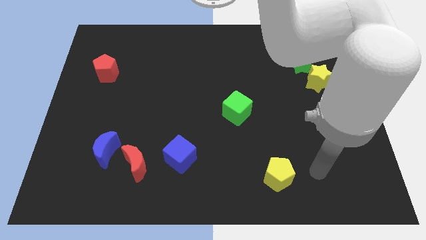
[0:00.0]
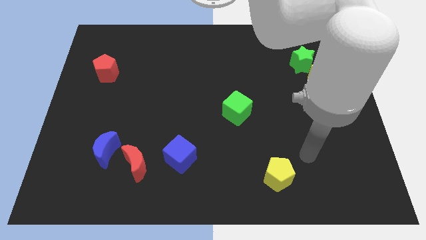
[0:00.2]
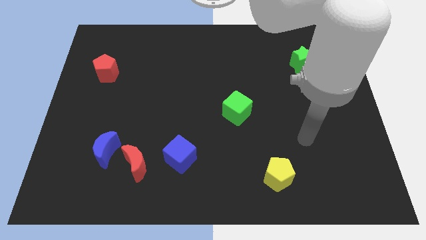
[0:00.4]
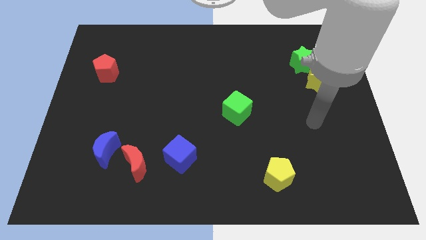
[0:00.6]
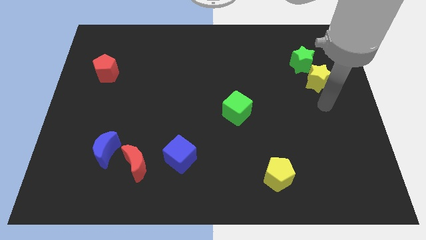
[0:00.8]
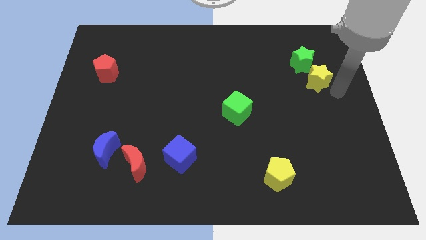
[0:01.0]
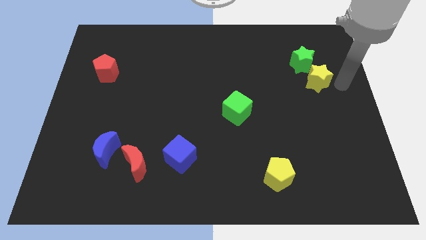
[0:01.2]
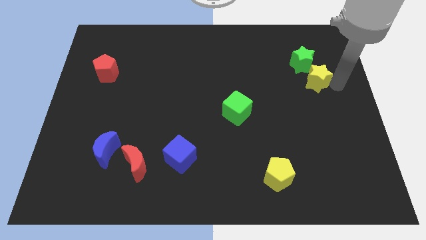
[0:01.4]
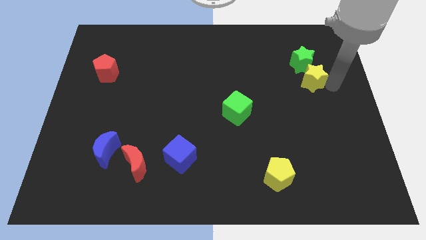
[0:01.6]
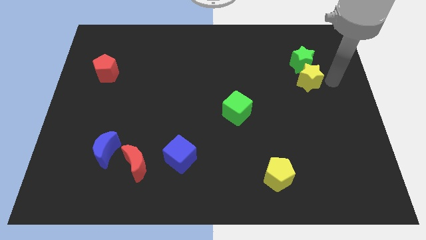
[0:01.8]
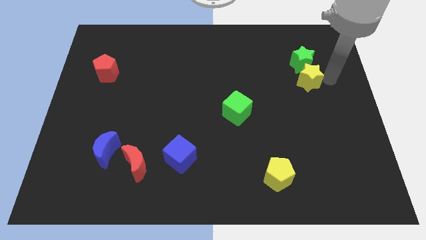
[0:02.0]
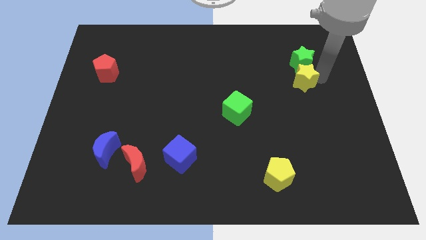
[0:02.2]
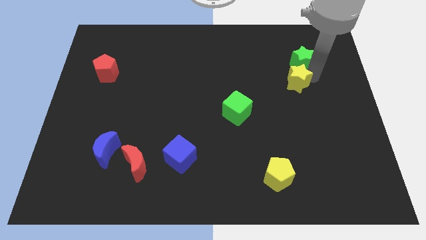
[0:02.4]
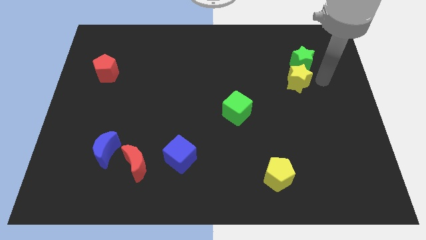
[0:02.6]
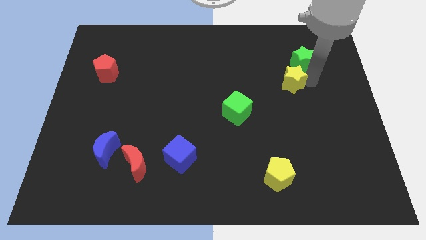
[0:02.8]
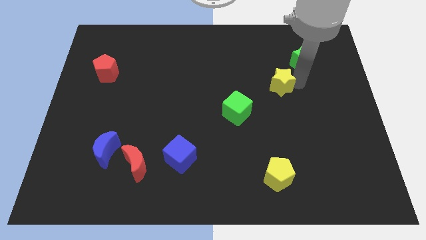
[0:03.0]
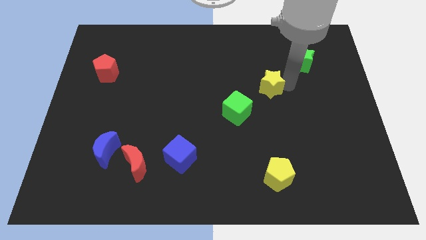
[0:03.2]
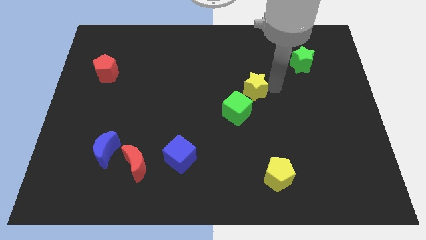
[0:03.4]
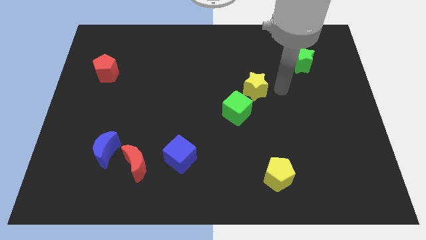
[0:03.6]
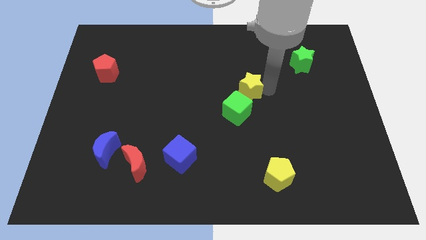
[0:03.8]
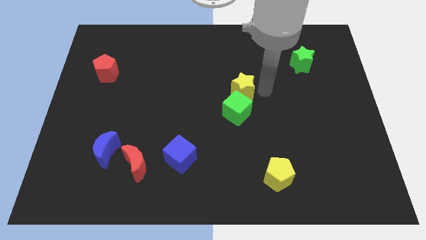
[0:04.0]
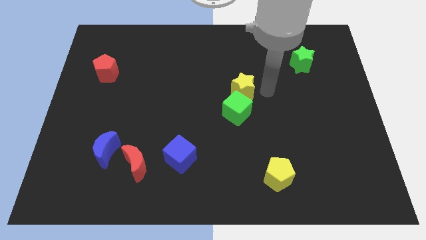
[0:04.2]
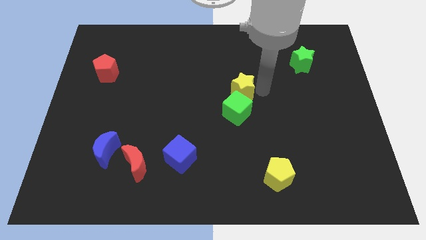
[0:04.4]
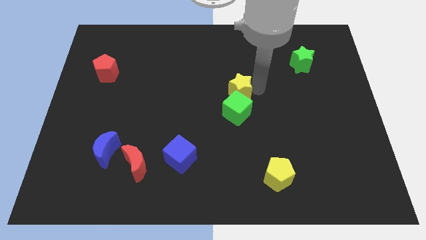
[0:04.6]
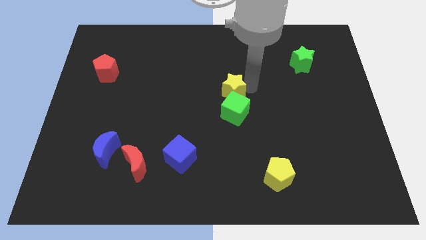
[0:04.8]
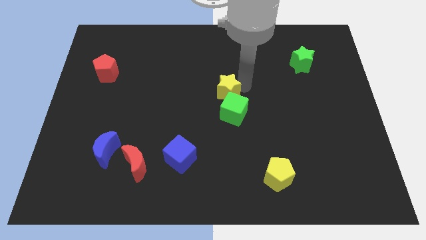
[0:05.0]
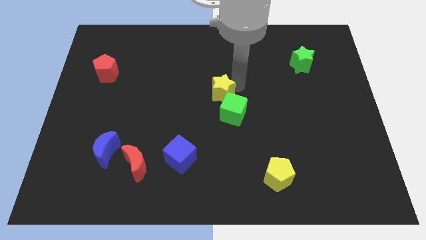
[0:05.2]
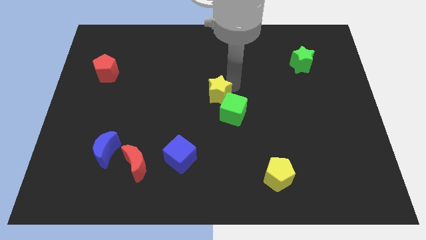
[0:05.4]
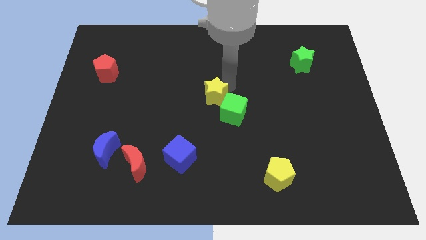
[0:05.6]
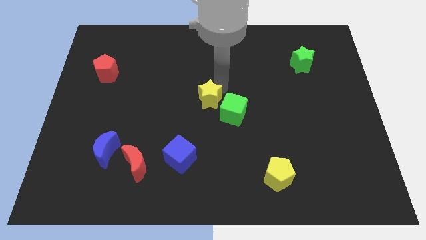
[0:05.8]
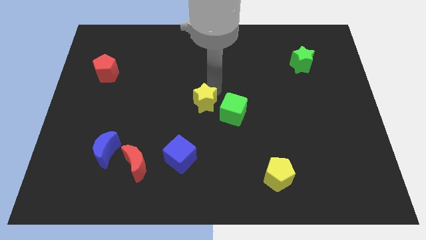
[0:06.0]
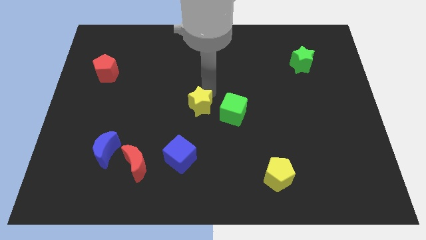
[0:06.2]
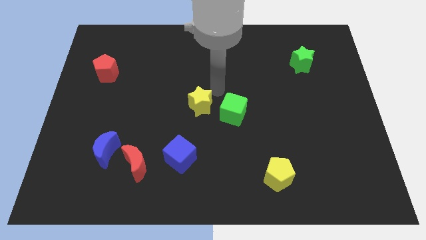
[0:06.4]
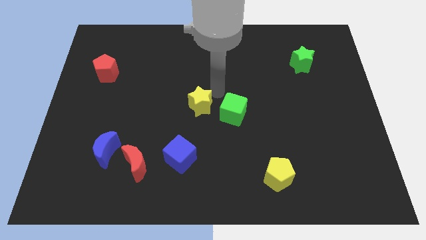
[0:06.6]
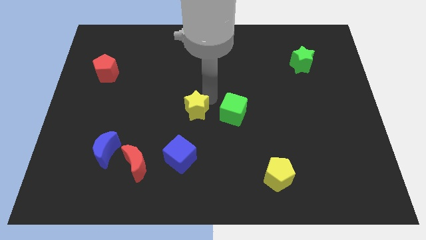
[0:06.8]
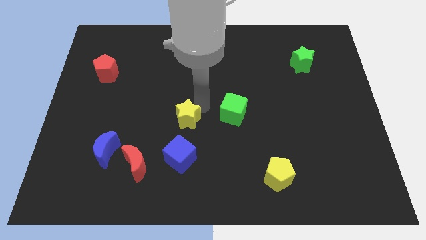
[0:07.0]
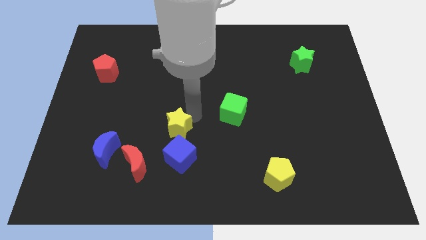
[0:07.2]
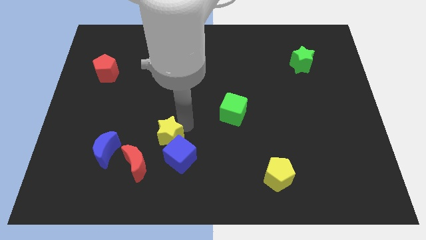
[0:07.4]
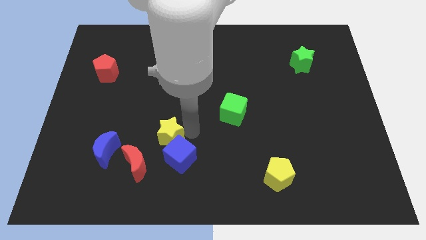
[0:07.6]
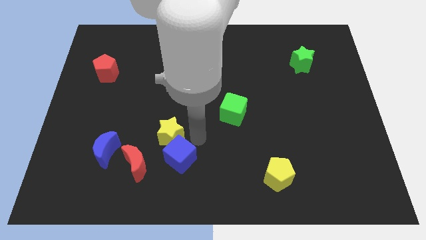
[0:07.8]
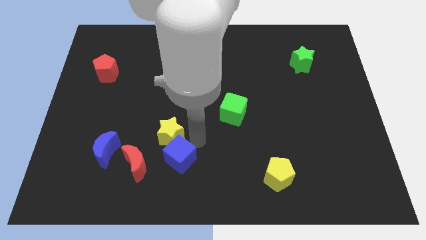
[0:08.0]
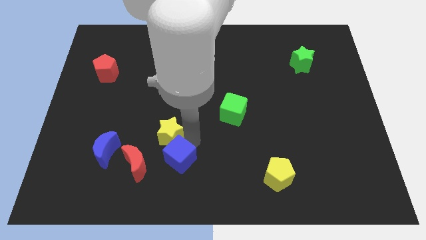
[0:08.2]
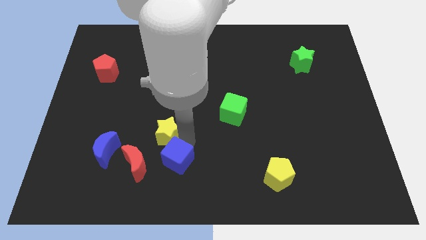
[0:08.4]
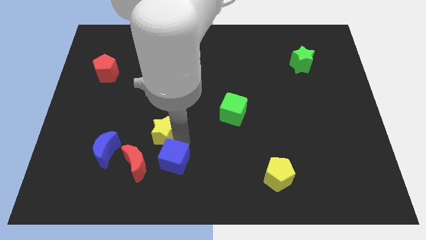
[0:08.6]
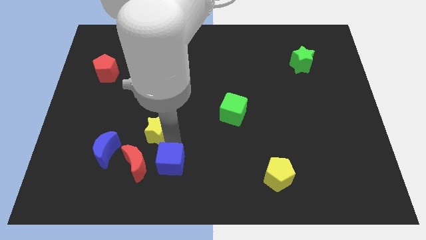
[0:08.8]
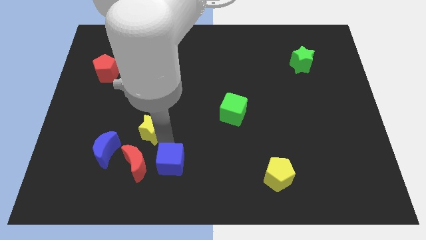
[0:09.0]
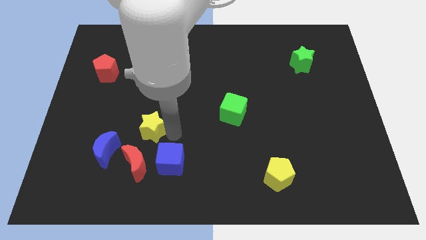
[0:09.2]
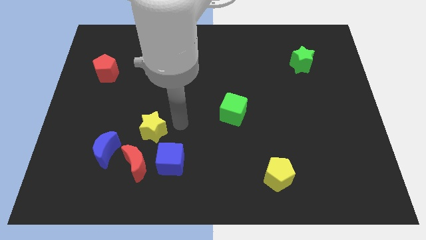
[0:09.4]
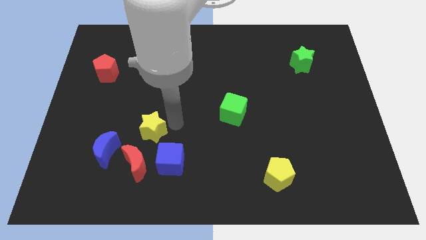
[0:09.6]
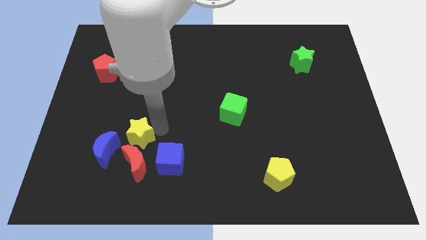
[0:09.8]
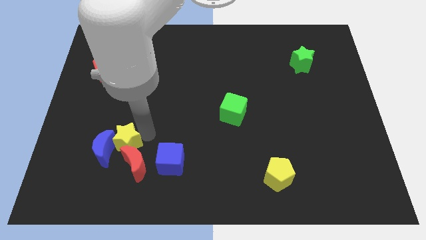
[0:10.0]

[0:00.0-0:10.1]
slide the yellow star close to the blue moon

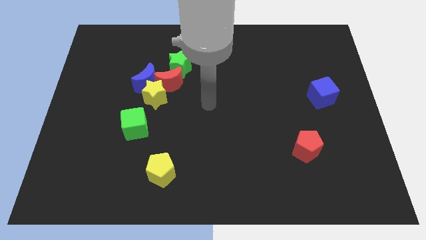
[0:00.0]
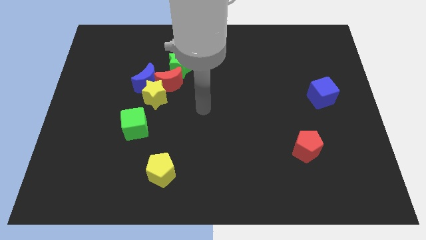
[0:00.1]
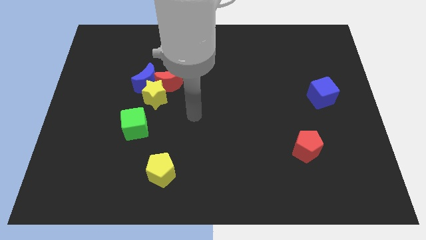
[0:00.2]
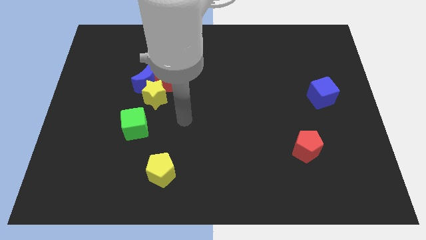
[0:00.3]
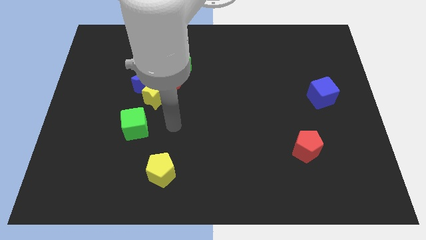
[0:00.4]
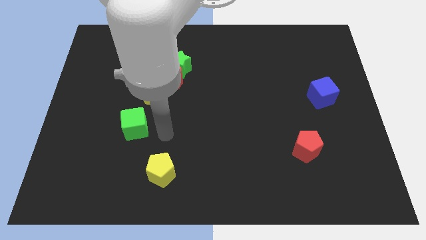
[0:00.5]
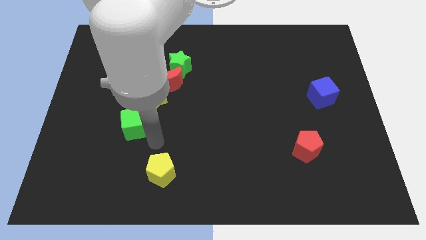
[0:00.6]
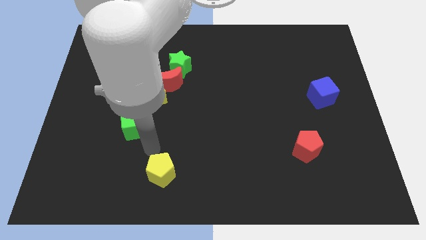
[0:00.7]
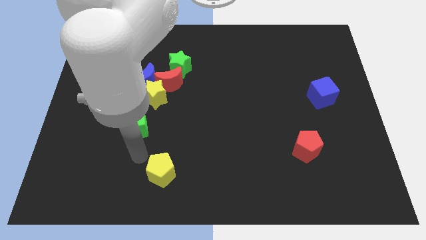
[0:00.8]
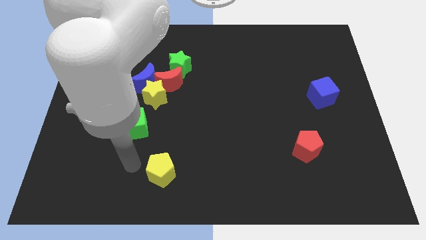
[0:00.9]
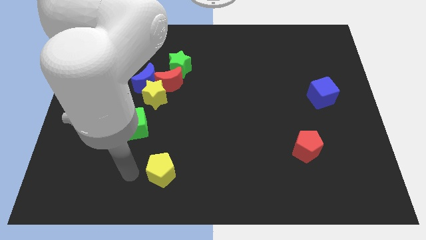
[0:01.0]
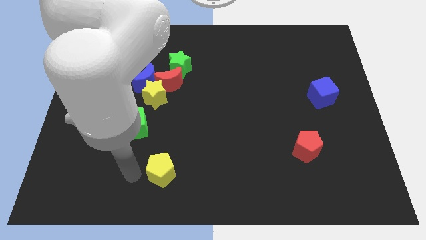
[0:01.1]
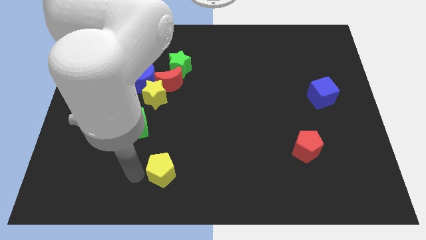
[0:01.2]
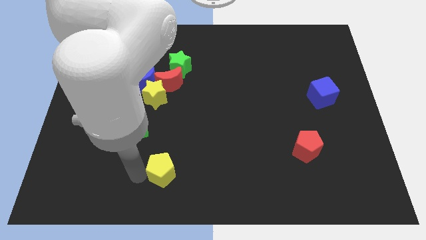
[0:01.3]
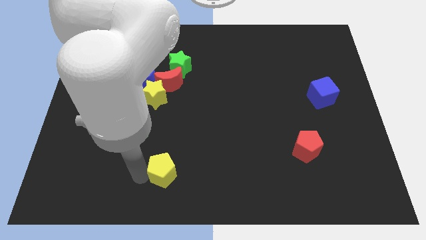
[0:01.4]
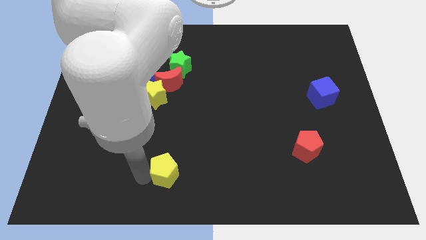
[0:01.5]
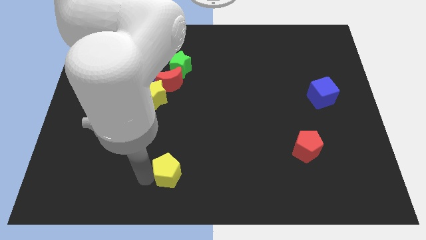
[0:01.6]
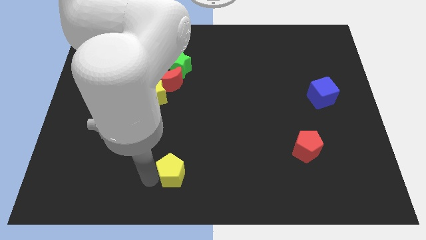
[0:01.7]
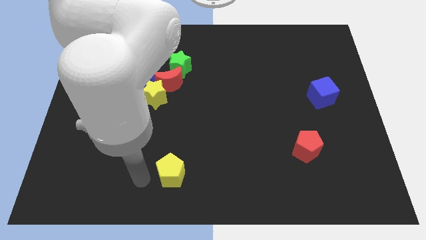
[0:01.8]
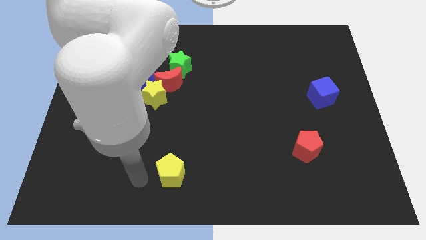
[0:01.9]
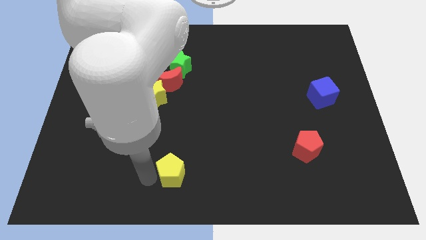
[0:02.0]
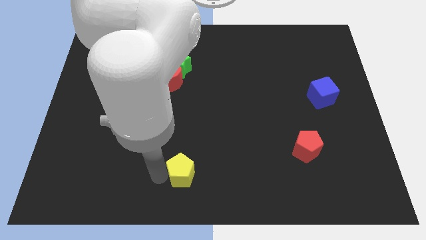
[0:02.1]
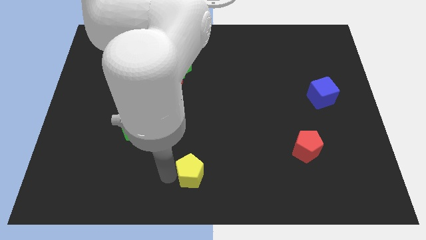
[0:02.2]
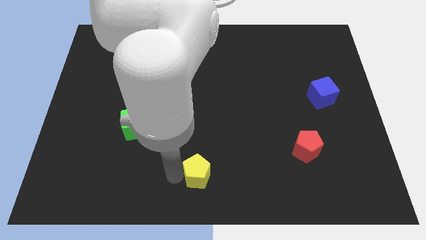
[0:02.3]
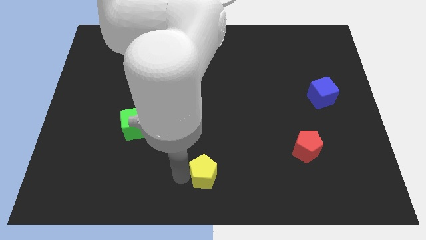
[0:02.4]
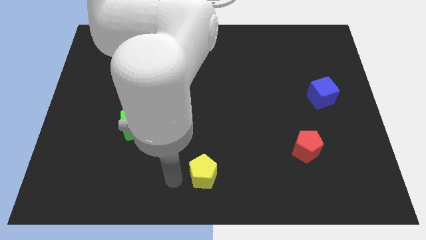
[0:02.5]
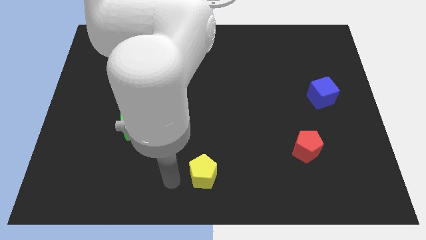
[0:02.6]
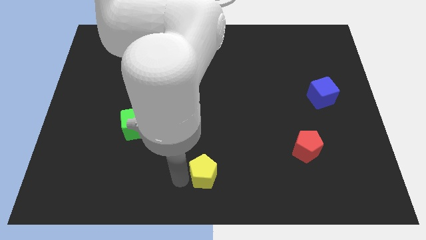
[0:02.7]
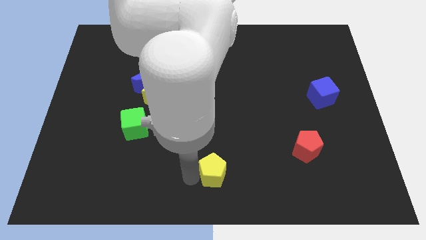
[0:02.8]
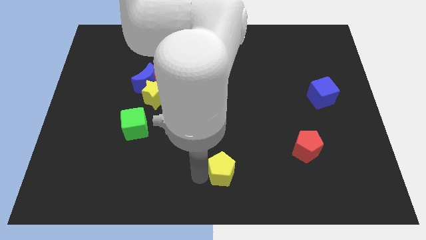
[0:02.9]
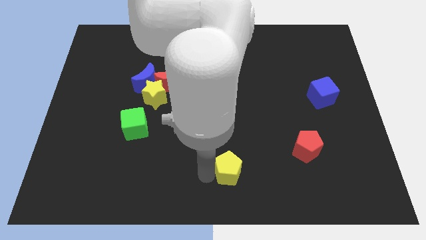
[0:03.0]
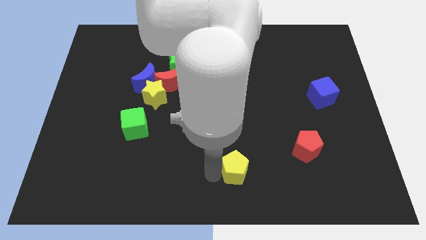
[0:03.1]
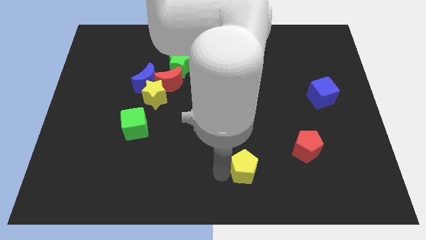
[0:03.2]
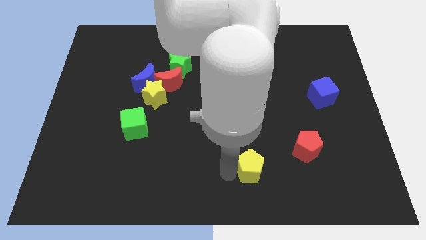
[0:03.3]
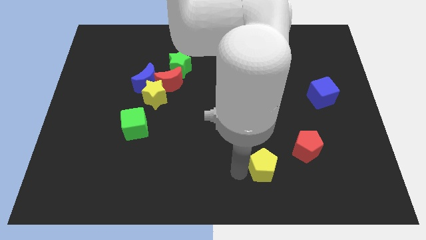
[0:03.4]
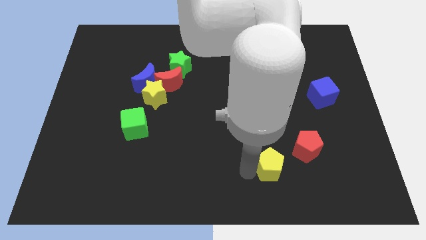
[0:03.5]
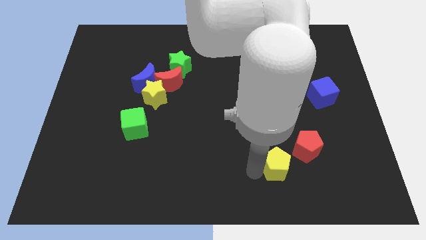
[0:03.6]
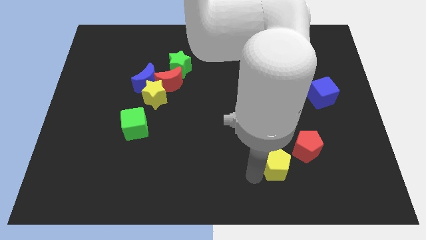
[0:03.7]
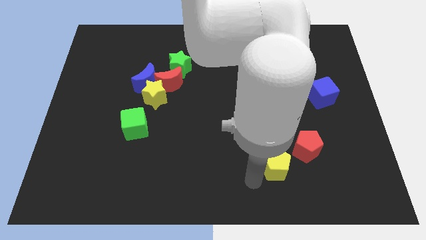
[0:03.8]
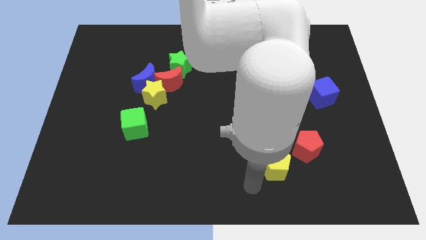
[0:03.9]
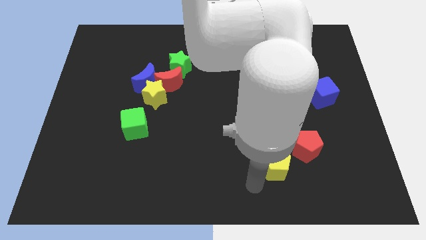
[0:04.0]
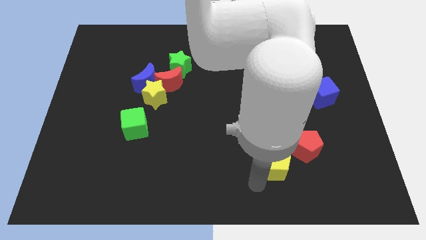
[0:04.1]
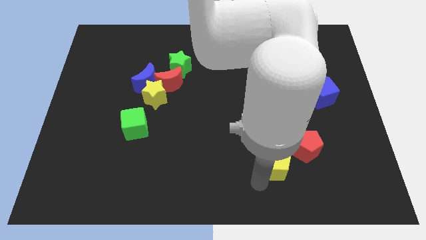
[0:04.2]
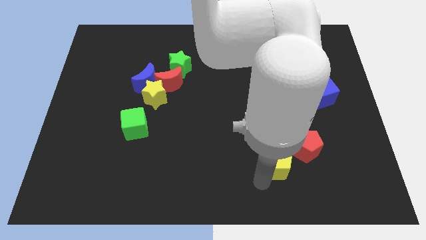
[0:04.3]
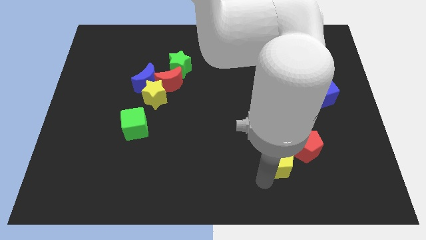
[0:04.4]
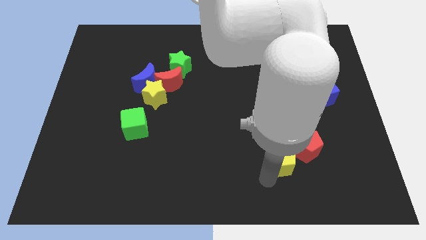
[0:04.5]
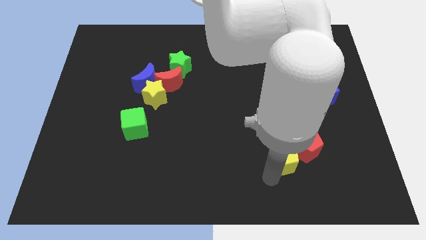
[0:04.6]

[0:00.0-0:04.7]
put the yellow pentagon next to the red pentagon
